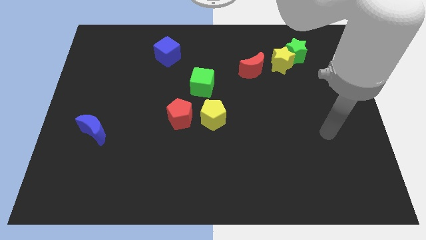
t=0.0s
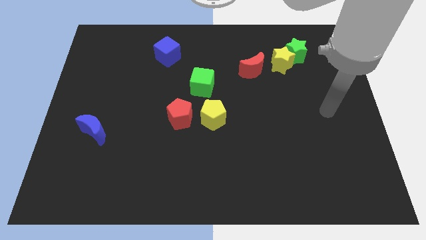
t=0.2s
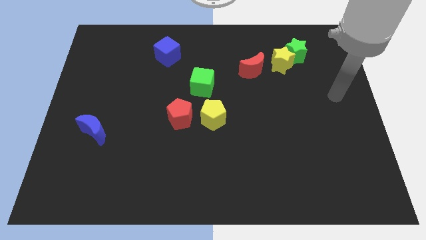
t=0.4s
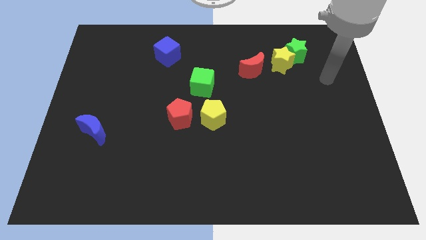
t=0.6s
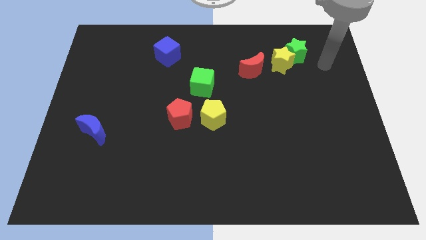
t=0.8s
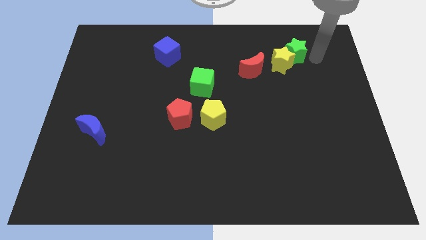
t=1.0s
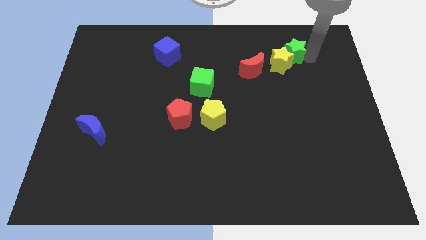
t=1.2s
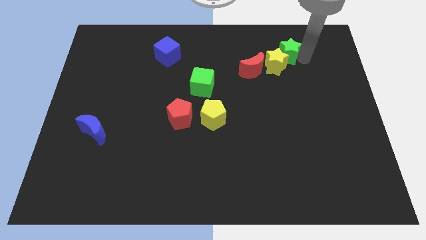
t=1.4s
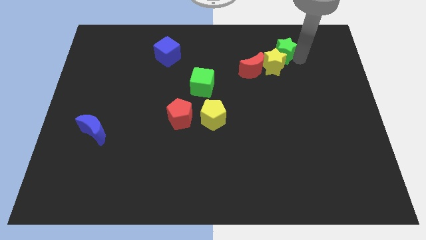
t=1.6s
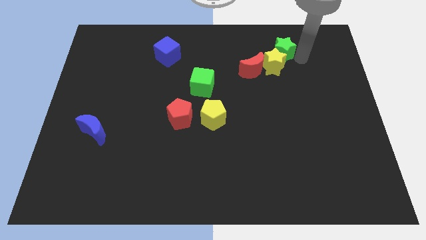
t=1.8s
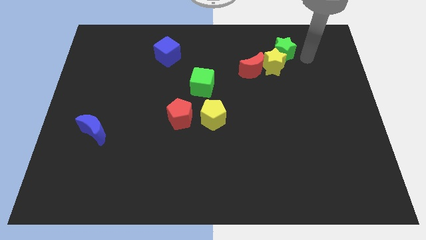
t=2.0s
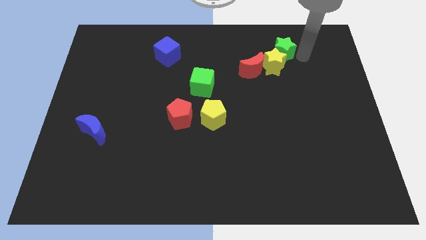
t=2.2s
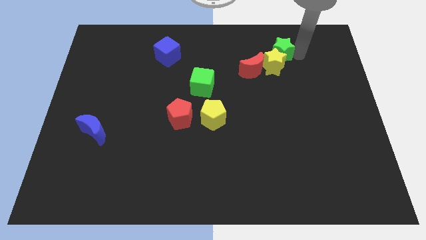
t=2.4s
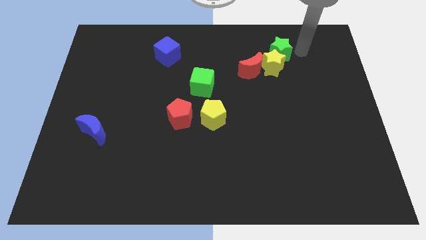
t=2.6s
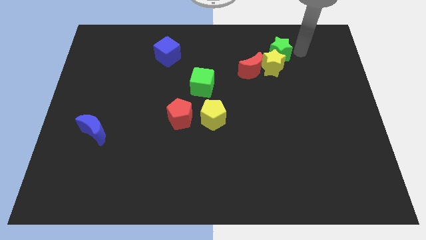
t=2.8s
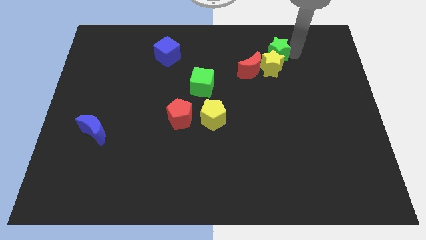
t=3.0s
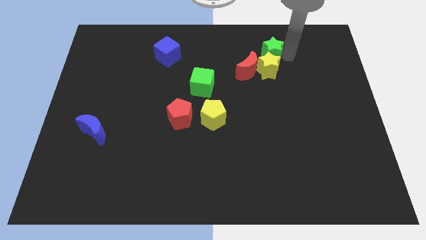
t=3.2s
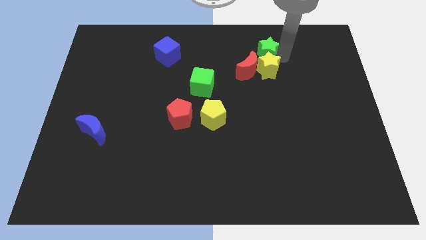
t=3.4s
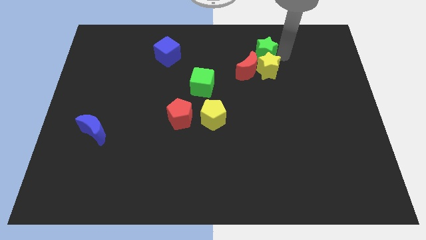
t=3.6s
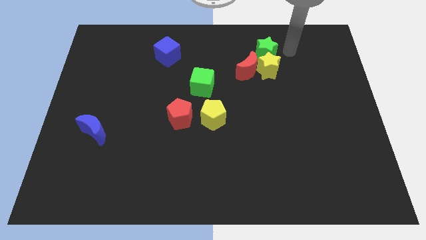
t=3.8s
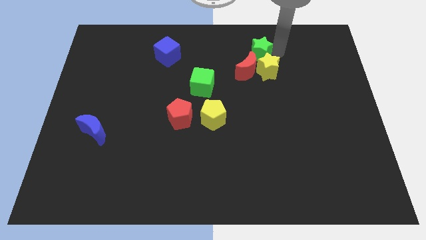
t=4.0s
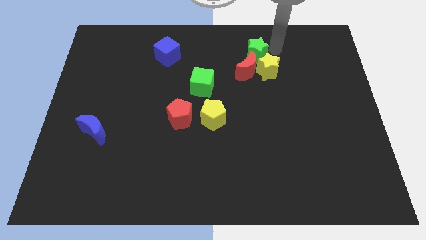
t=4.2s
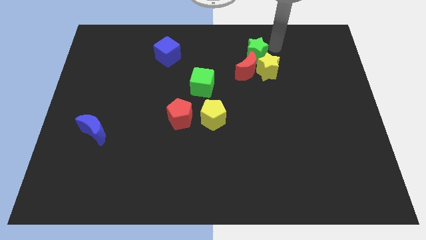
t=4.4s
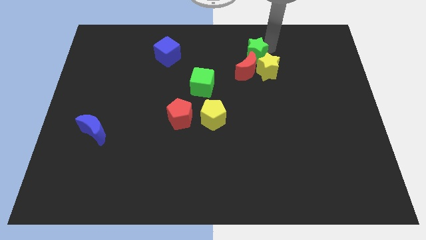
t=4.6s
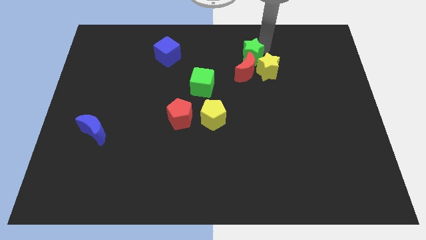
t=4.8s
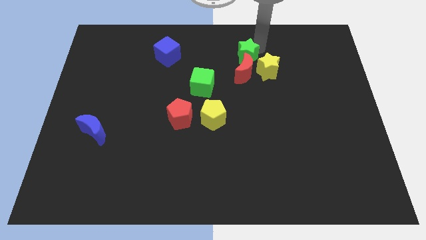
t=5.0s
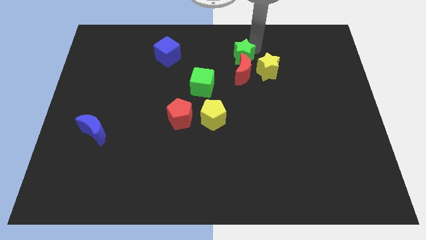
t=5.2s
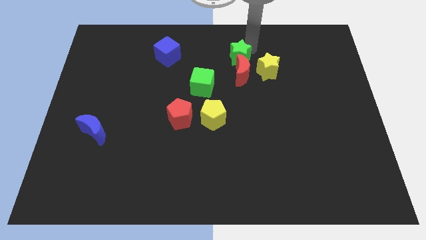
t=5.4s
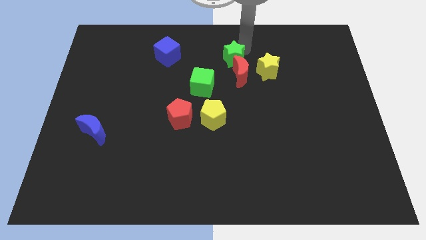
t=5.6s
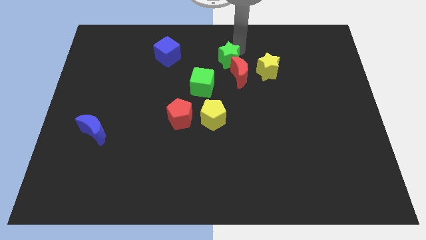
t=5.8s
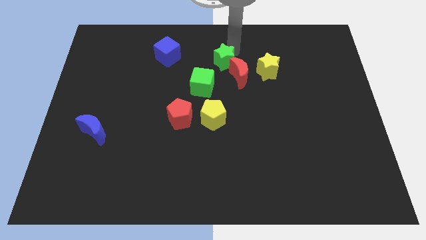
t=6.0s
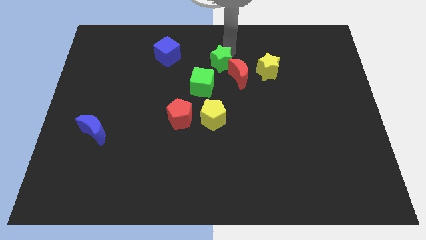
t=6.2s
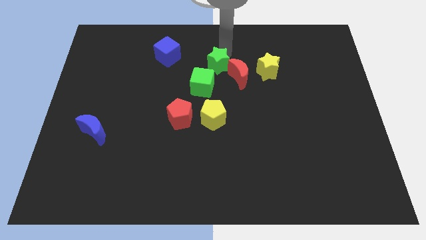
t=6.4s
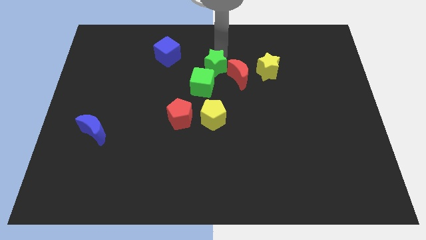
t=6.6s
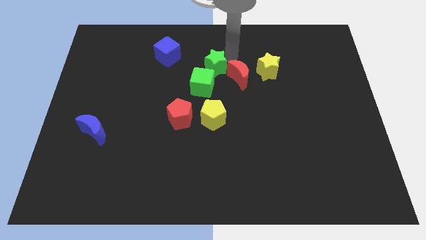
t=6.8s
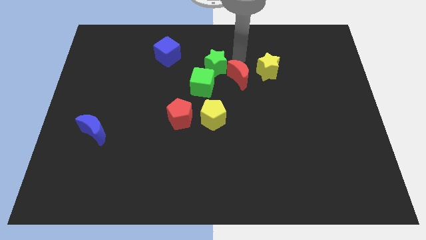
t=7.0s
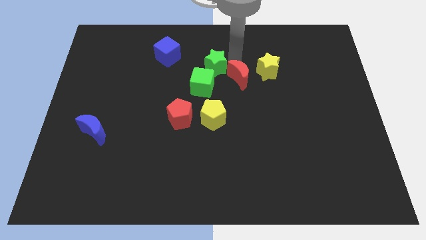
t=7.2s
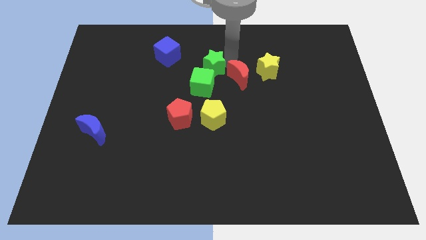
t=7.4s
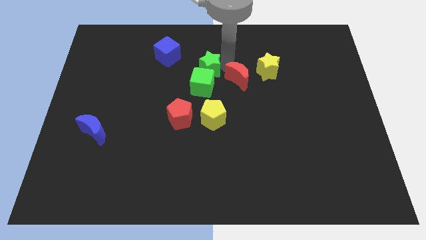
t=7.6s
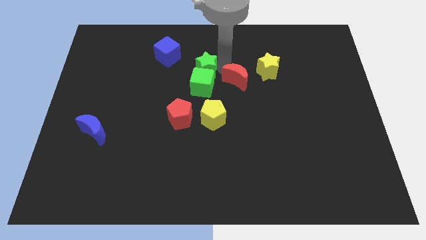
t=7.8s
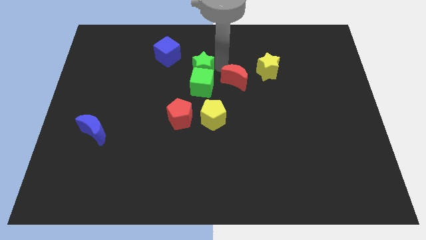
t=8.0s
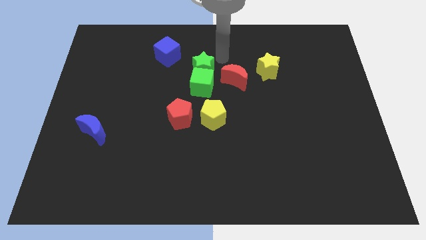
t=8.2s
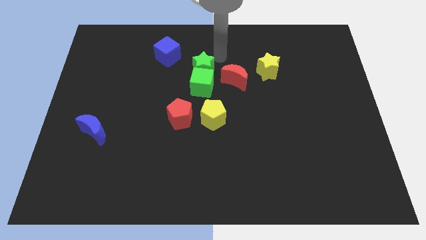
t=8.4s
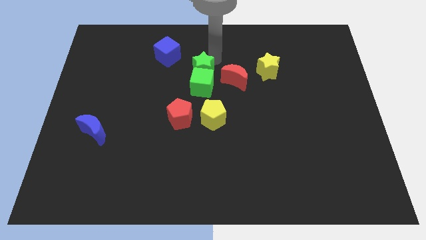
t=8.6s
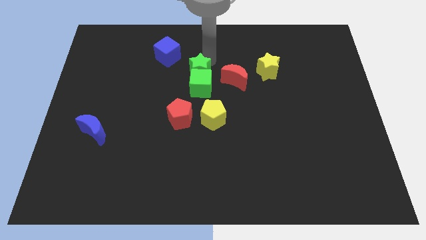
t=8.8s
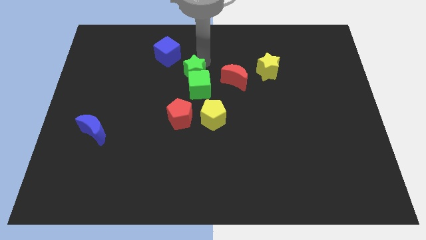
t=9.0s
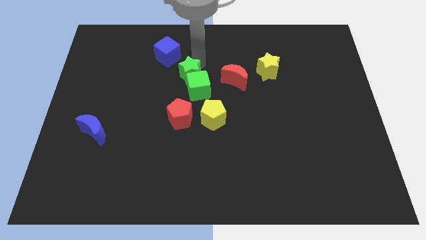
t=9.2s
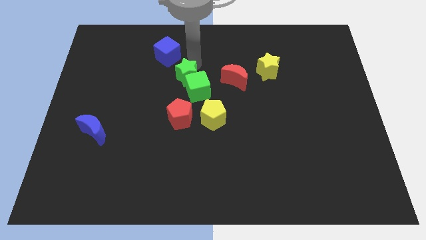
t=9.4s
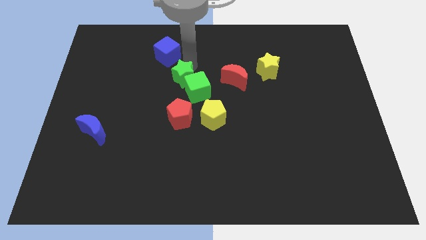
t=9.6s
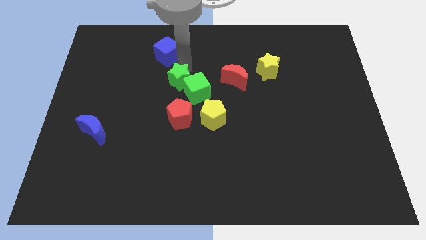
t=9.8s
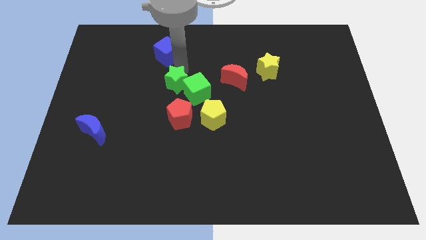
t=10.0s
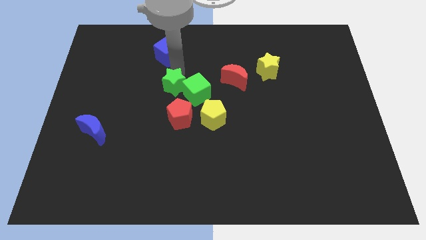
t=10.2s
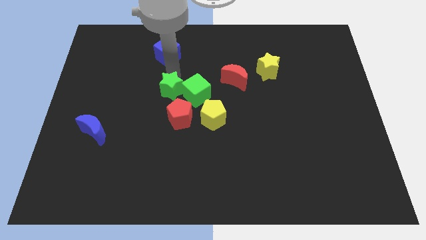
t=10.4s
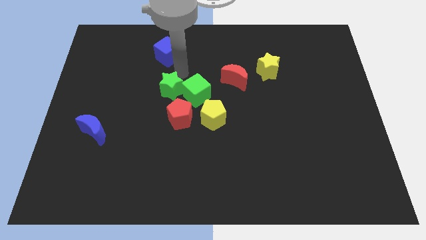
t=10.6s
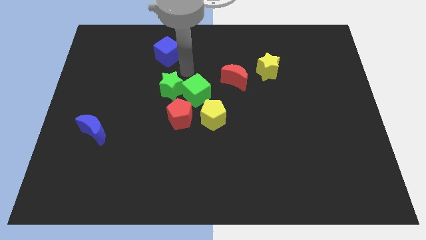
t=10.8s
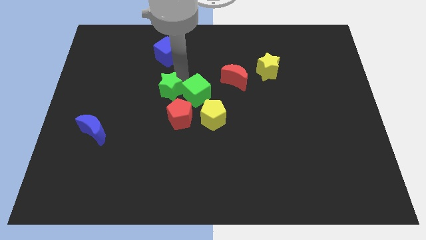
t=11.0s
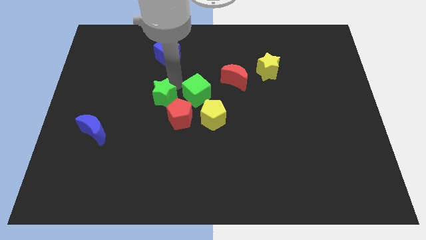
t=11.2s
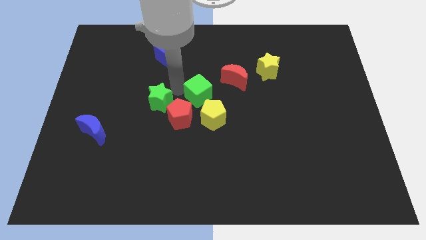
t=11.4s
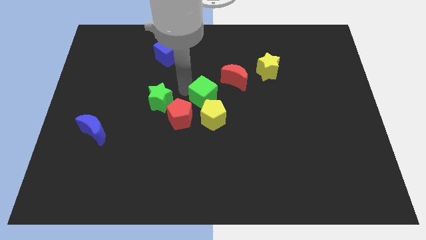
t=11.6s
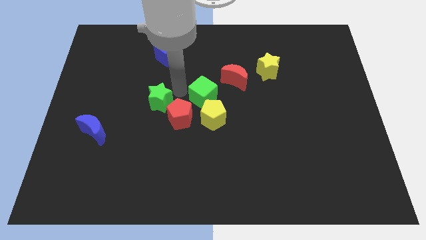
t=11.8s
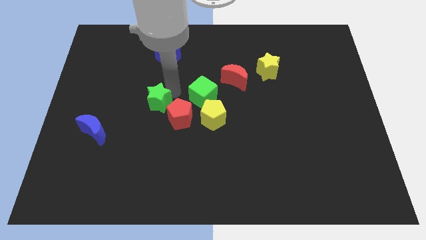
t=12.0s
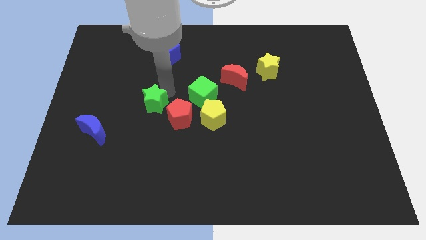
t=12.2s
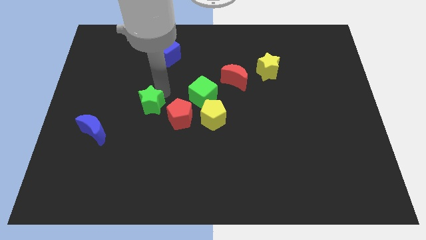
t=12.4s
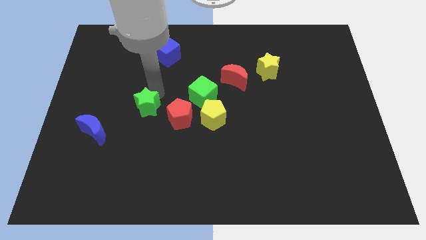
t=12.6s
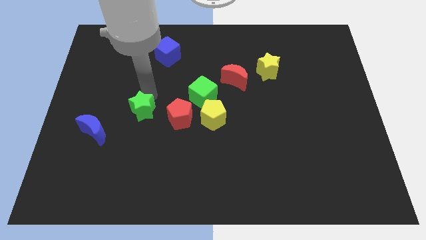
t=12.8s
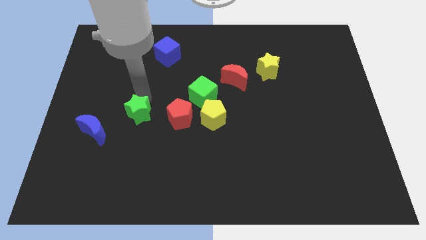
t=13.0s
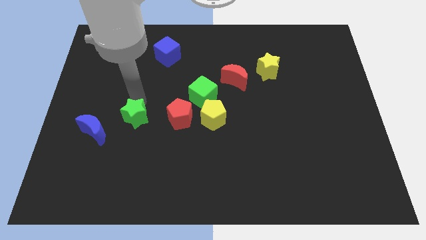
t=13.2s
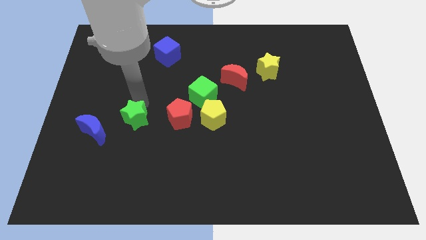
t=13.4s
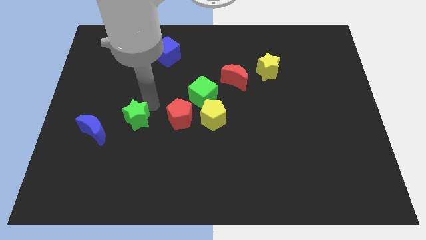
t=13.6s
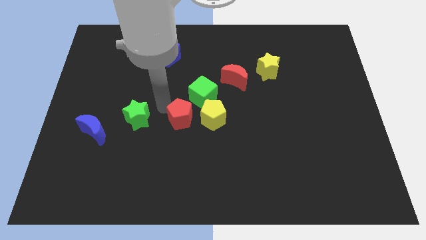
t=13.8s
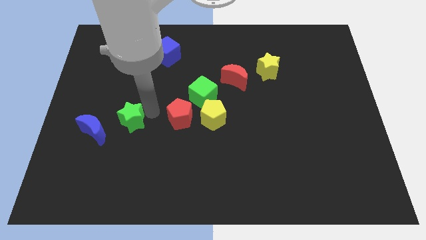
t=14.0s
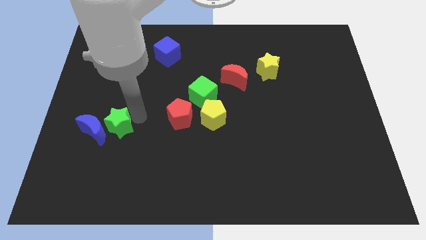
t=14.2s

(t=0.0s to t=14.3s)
put the green star next to the blue moon
